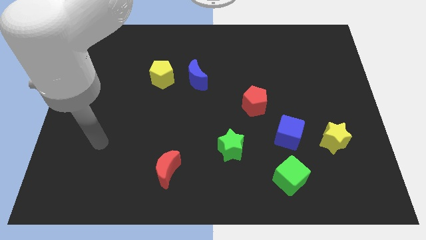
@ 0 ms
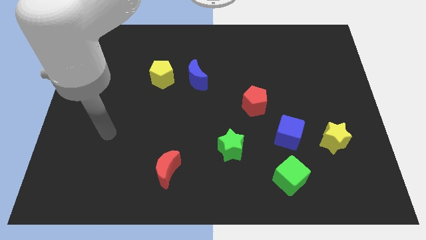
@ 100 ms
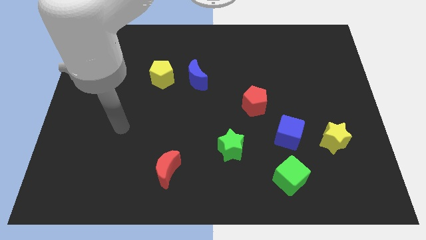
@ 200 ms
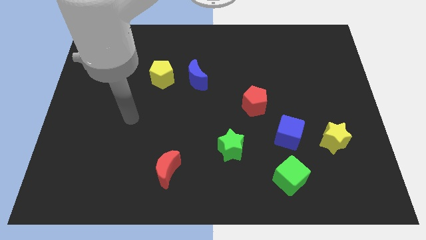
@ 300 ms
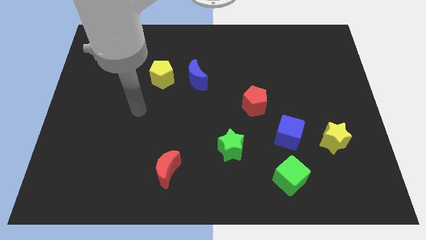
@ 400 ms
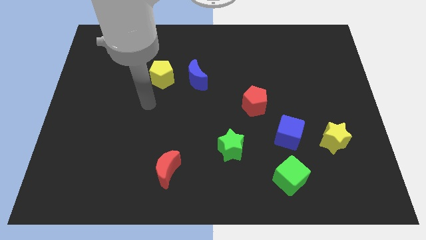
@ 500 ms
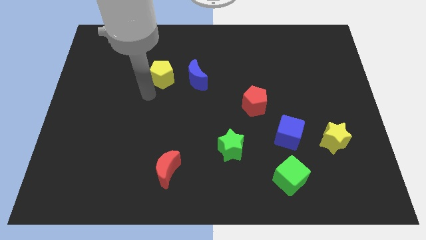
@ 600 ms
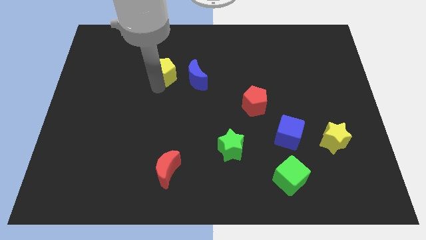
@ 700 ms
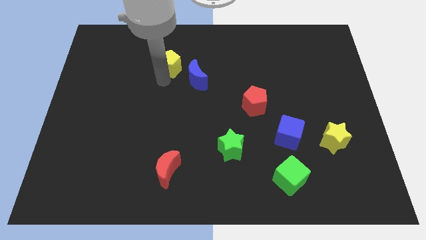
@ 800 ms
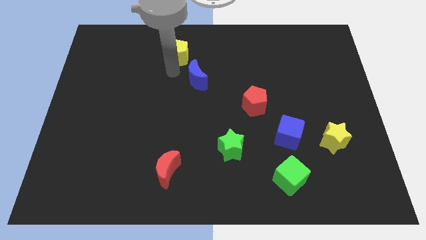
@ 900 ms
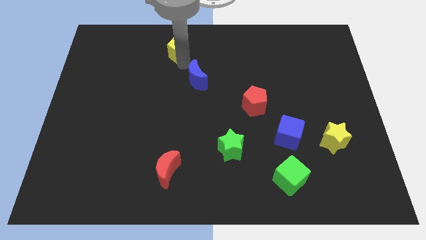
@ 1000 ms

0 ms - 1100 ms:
separate the blue moon from the yellow pentagon

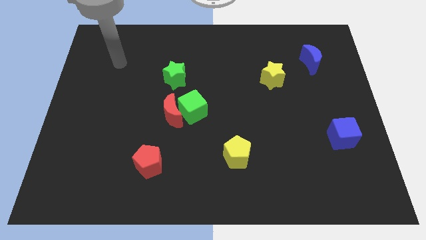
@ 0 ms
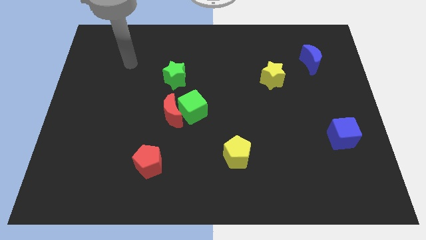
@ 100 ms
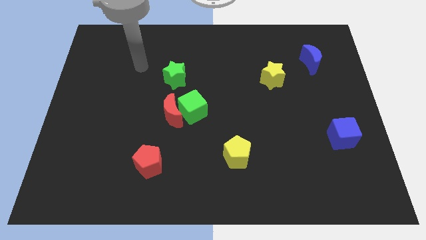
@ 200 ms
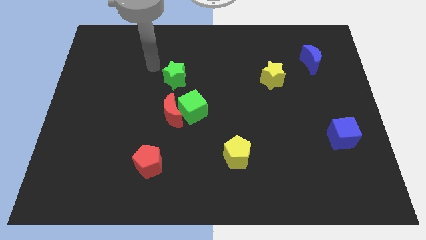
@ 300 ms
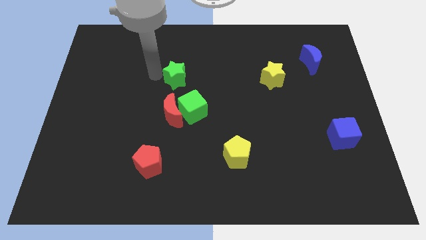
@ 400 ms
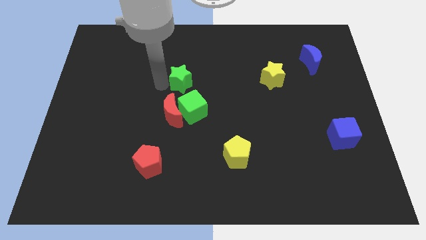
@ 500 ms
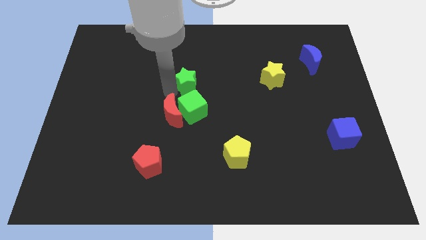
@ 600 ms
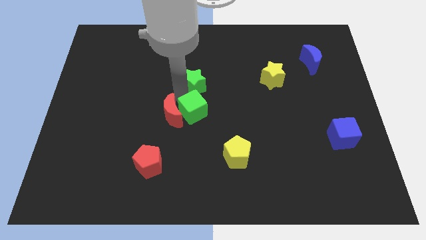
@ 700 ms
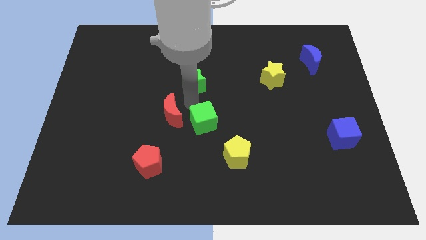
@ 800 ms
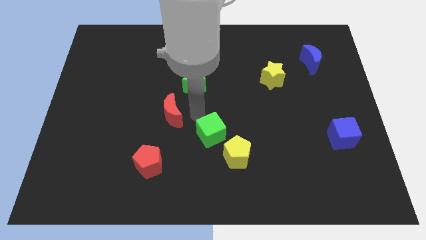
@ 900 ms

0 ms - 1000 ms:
move the red moon away from the green cube

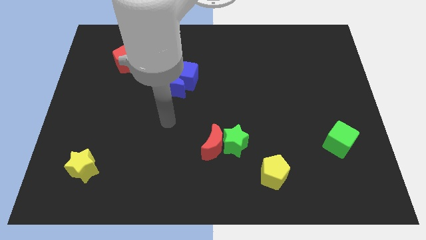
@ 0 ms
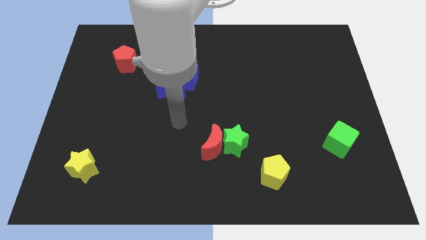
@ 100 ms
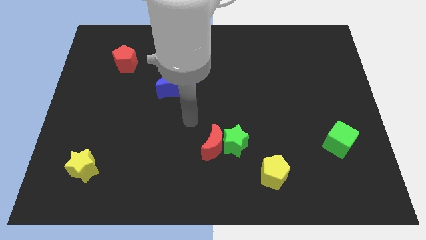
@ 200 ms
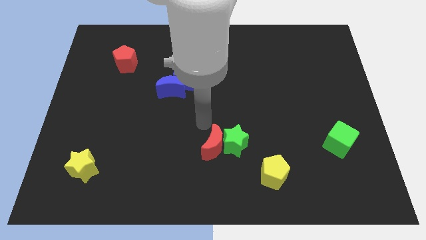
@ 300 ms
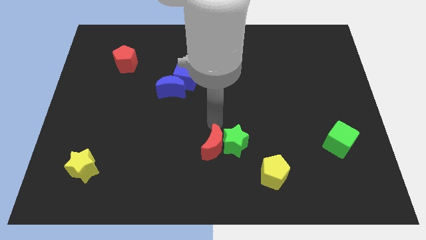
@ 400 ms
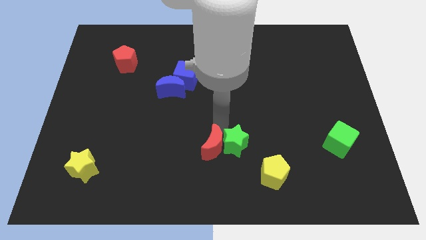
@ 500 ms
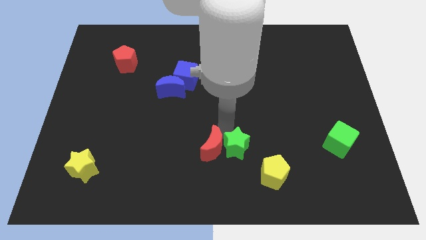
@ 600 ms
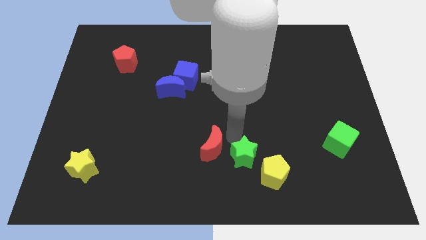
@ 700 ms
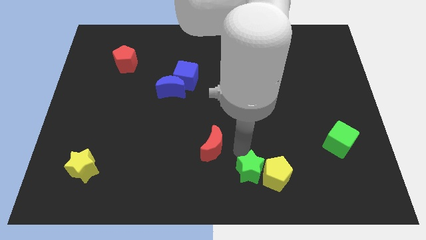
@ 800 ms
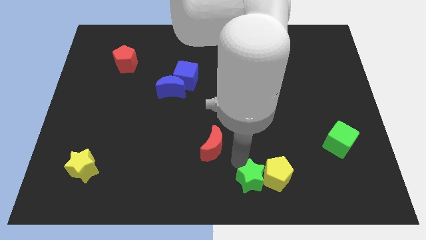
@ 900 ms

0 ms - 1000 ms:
pull the red moon apart from the green star

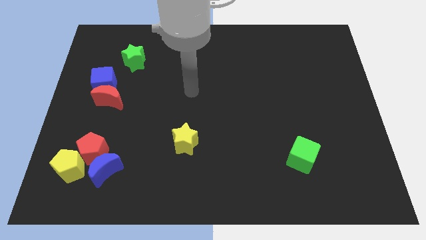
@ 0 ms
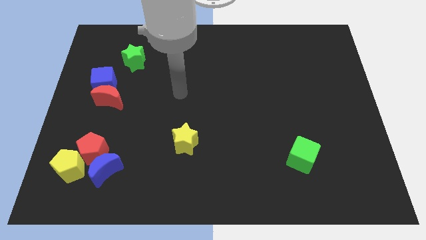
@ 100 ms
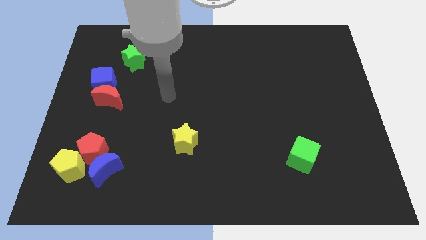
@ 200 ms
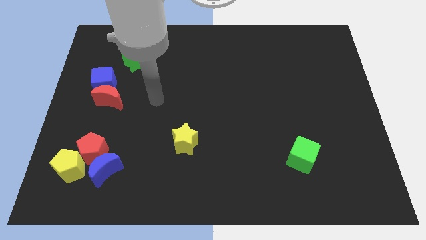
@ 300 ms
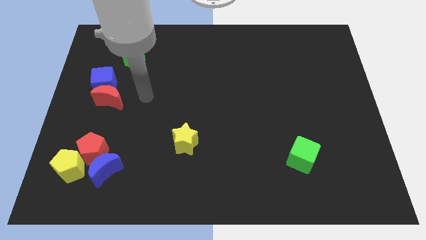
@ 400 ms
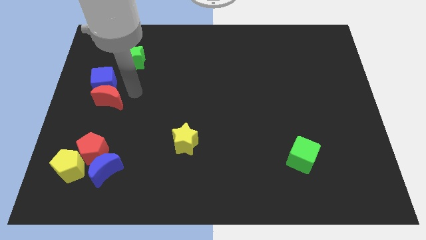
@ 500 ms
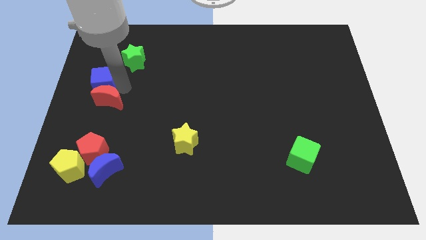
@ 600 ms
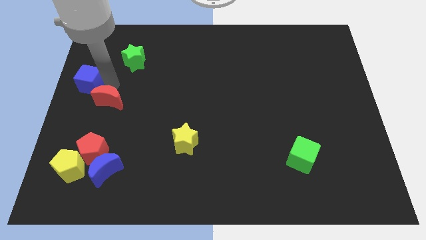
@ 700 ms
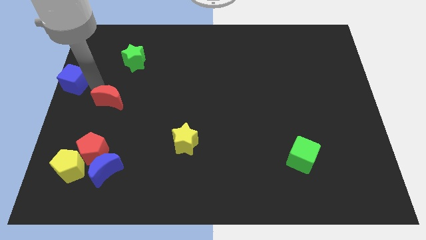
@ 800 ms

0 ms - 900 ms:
move the red moon away from the blue cube

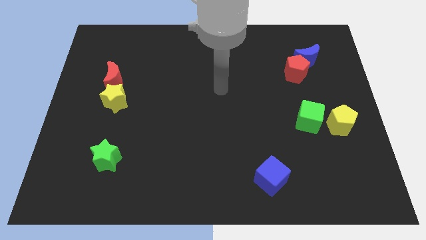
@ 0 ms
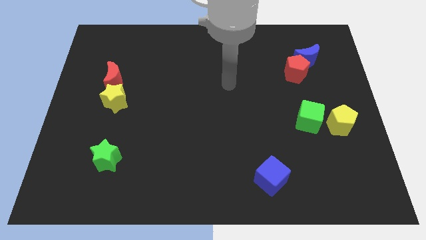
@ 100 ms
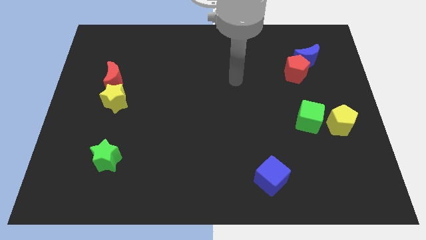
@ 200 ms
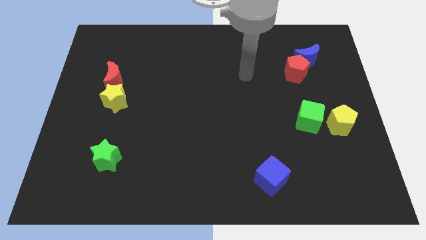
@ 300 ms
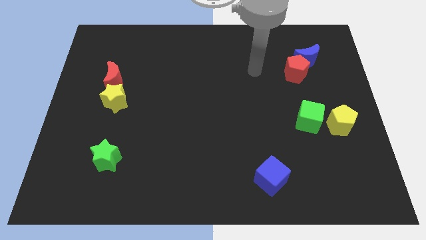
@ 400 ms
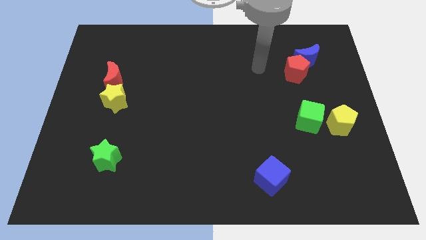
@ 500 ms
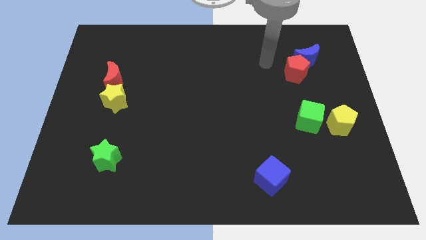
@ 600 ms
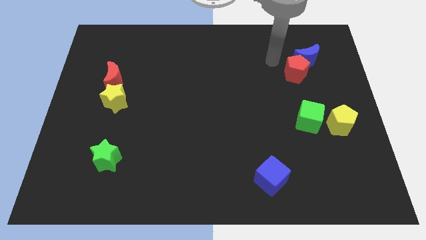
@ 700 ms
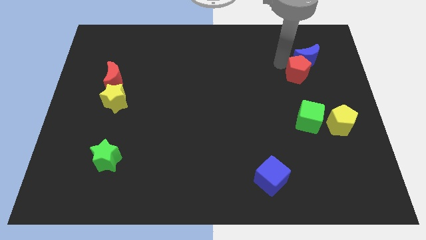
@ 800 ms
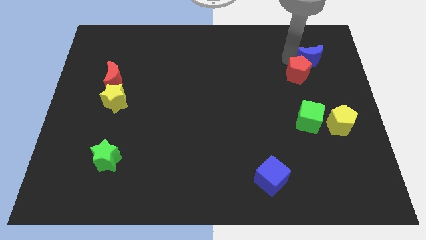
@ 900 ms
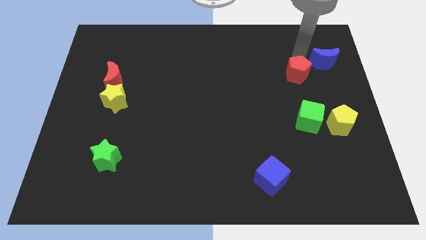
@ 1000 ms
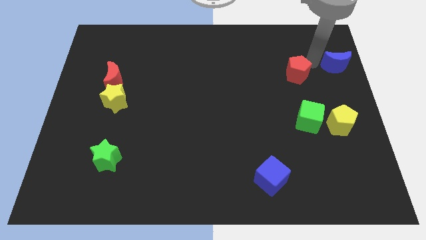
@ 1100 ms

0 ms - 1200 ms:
move the red pentagon away from the blue moon

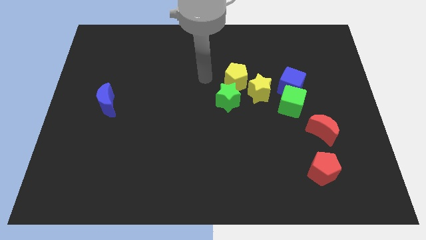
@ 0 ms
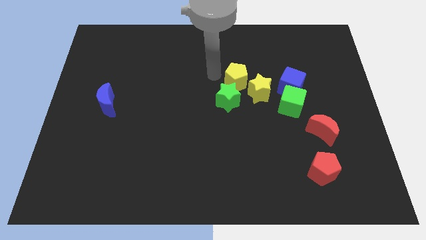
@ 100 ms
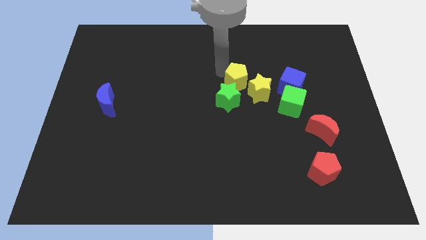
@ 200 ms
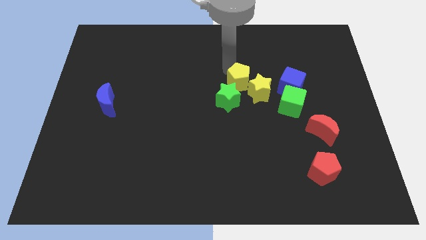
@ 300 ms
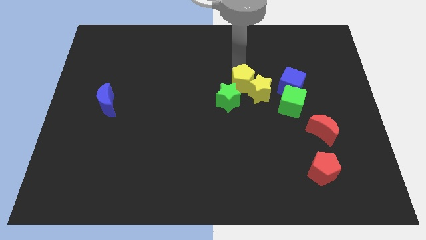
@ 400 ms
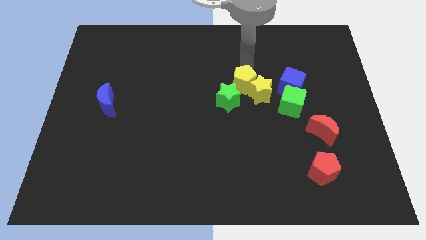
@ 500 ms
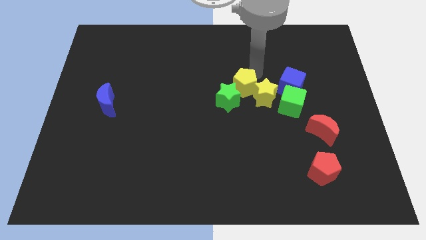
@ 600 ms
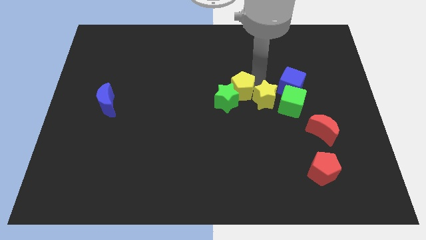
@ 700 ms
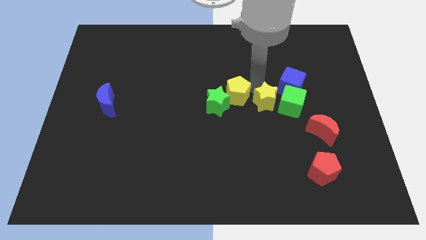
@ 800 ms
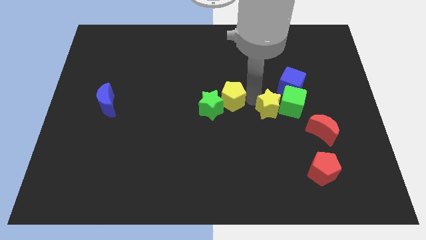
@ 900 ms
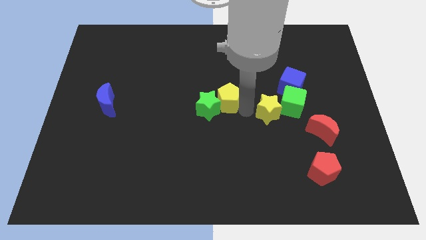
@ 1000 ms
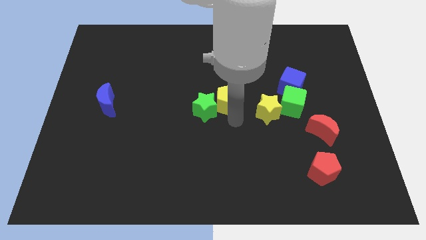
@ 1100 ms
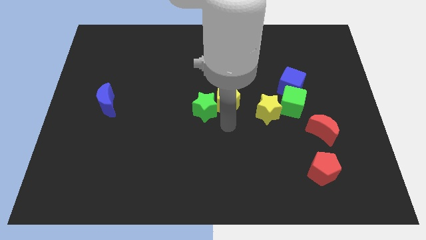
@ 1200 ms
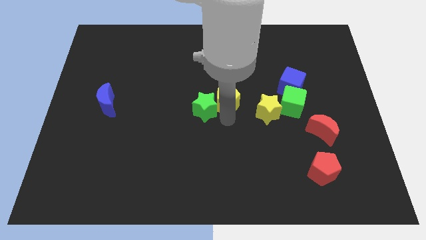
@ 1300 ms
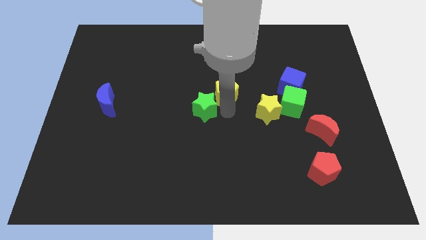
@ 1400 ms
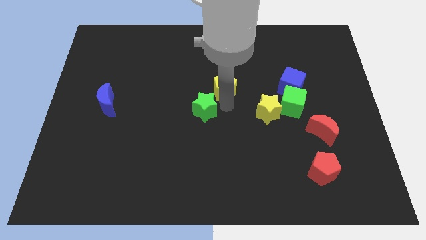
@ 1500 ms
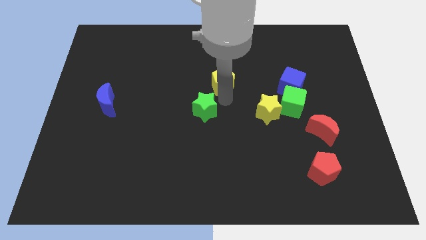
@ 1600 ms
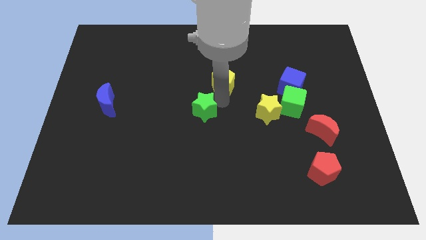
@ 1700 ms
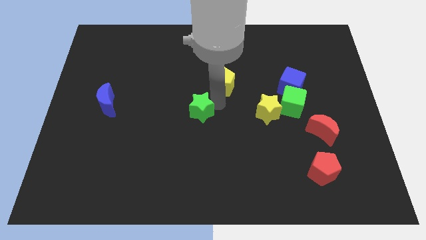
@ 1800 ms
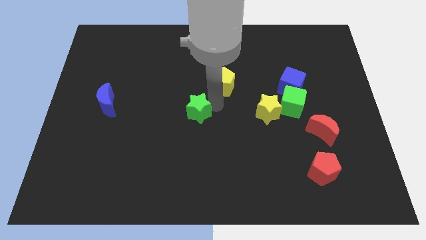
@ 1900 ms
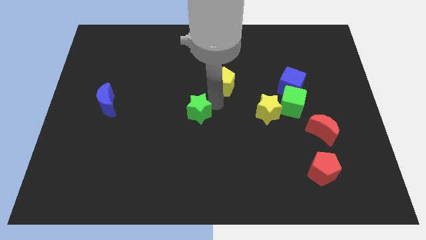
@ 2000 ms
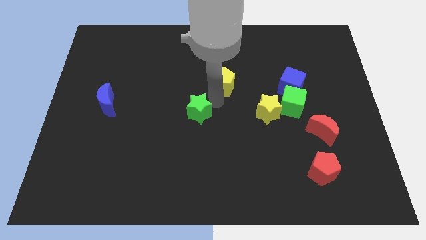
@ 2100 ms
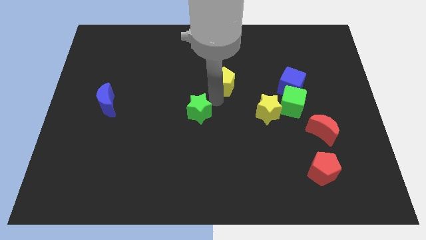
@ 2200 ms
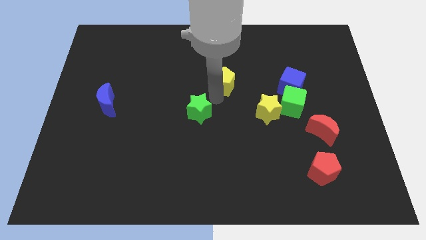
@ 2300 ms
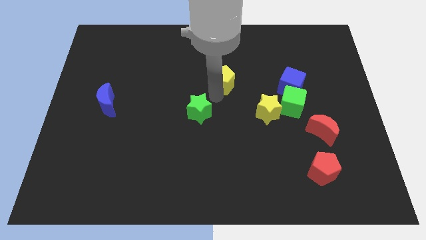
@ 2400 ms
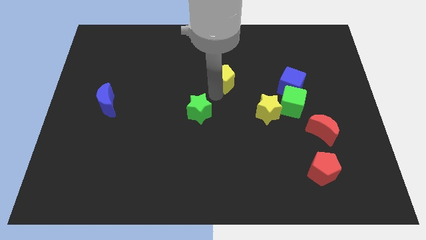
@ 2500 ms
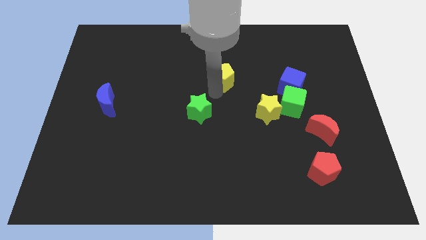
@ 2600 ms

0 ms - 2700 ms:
move the yellow pentagon away from the yellow star and green star

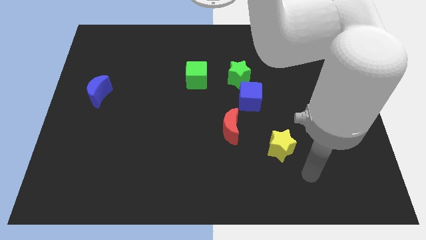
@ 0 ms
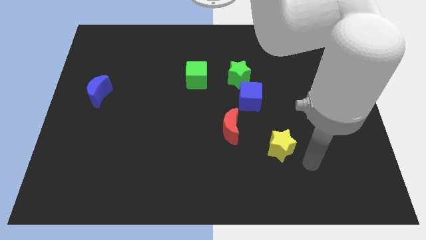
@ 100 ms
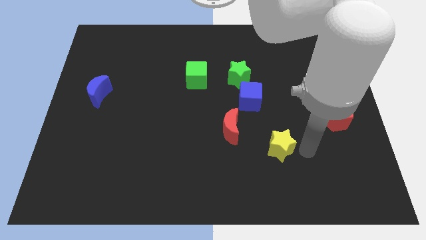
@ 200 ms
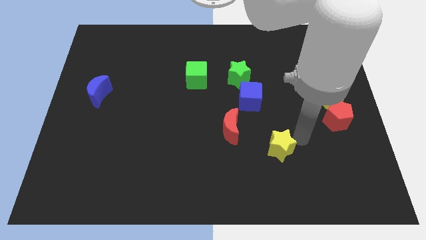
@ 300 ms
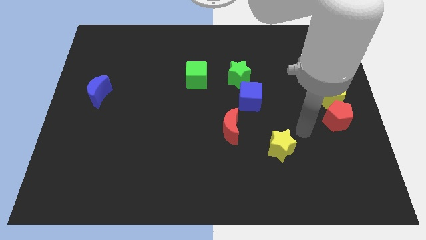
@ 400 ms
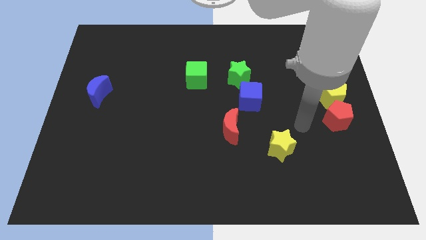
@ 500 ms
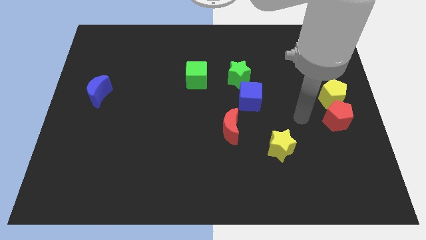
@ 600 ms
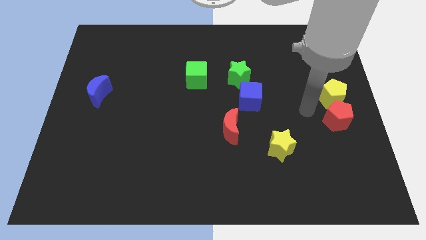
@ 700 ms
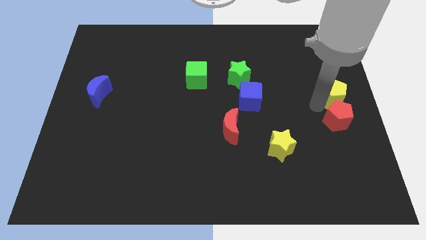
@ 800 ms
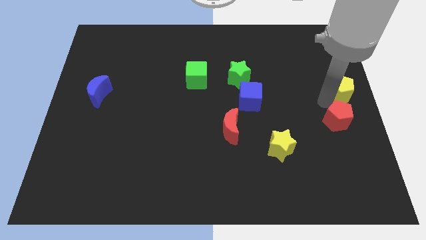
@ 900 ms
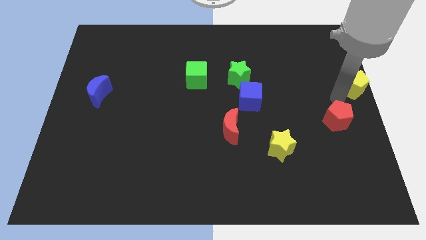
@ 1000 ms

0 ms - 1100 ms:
pull the red pentagon apart from the yellow pentagon

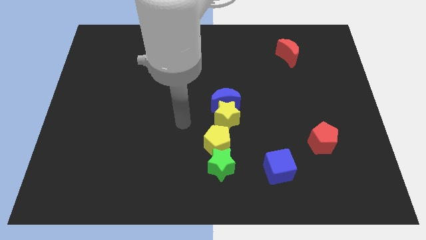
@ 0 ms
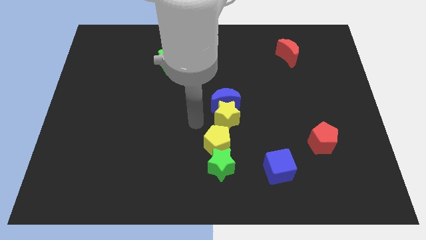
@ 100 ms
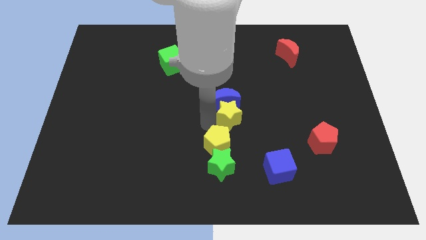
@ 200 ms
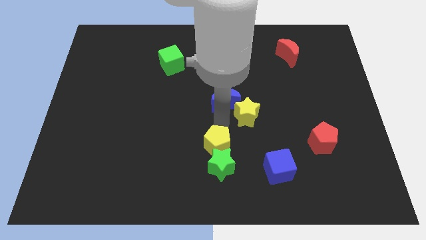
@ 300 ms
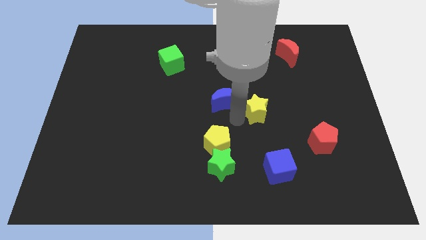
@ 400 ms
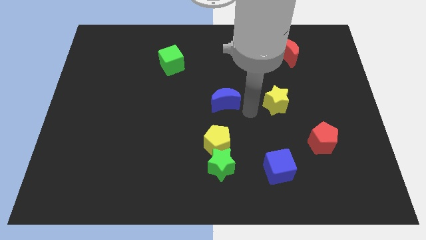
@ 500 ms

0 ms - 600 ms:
move the blue moon away from the yellow star
